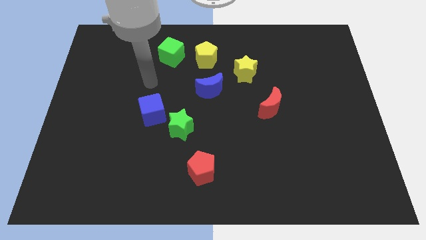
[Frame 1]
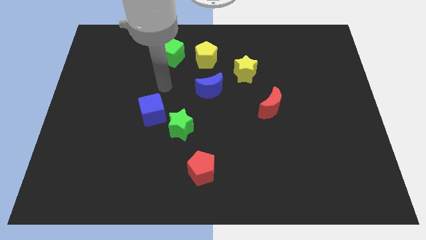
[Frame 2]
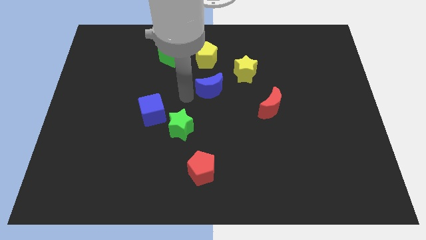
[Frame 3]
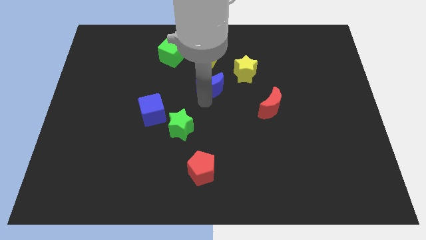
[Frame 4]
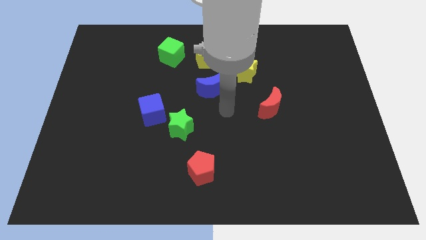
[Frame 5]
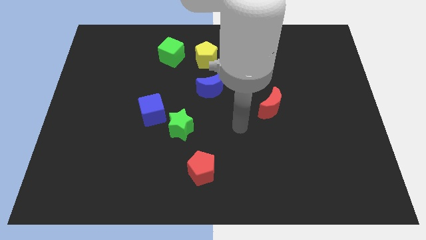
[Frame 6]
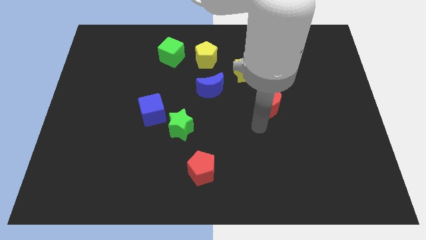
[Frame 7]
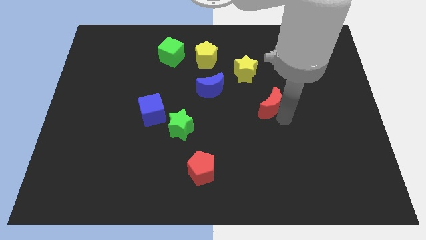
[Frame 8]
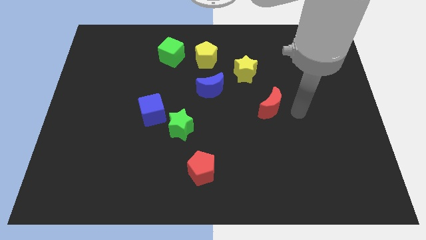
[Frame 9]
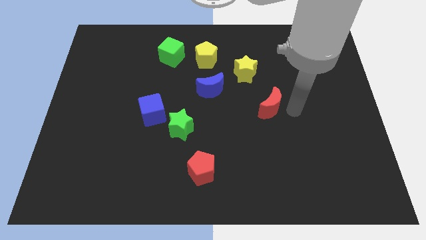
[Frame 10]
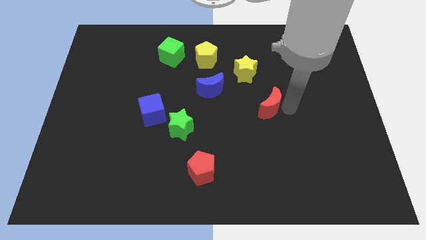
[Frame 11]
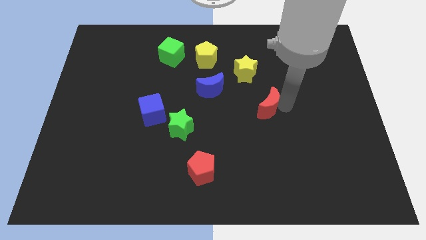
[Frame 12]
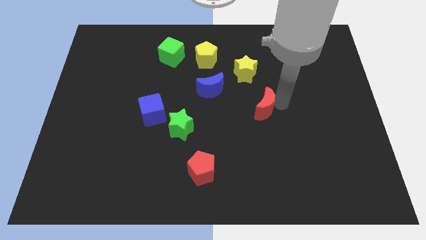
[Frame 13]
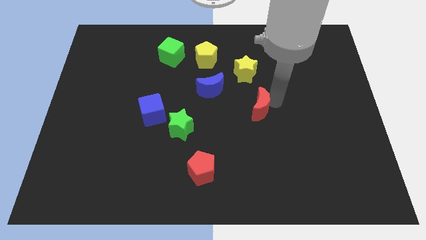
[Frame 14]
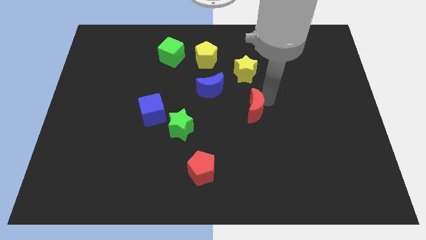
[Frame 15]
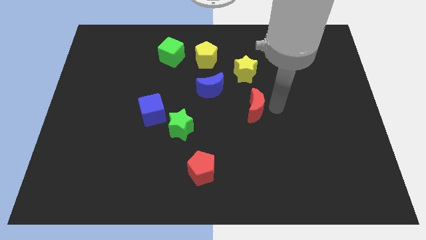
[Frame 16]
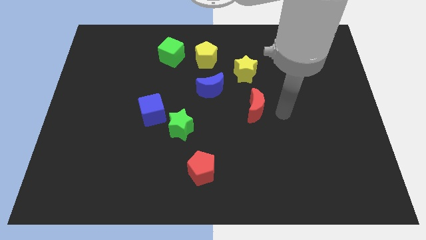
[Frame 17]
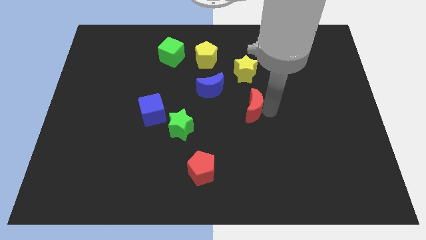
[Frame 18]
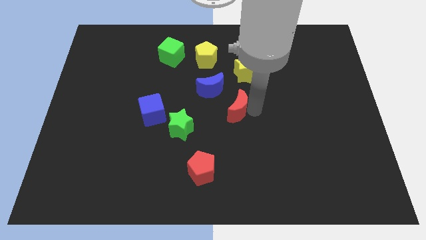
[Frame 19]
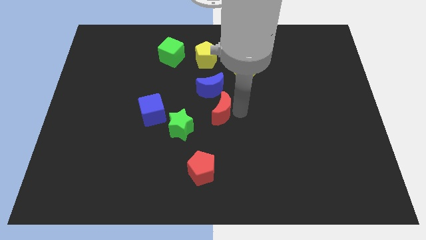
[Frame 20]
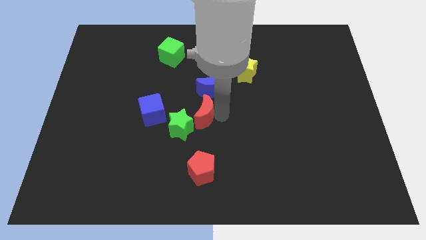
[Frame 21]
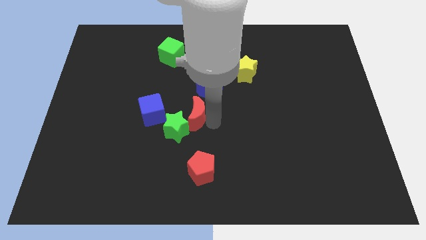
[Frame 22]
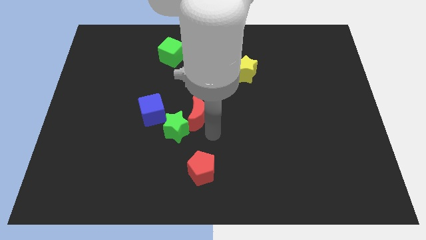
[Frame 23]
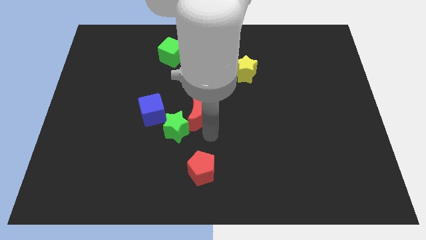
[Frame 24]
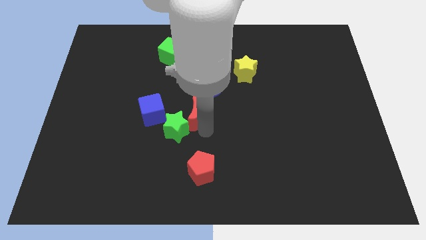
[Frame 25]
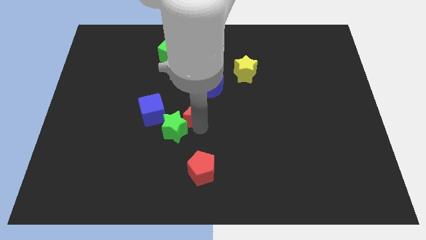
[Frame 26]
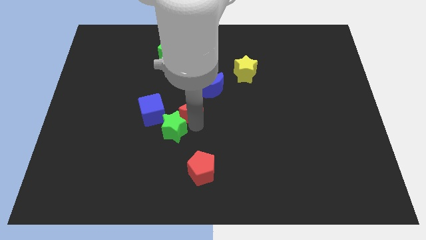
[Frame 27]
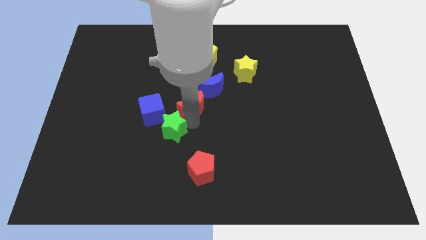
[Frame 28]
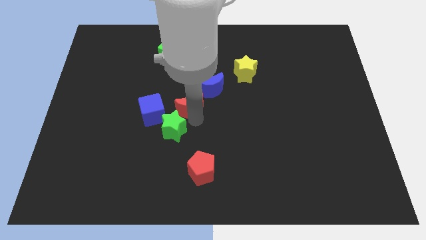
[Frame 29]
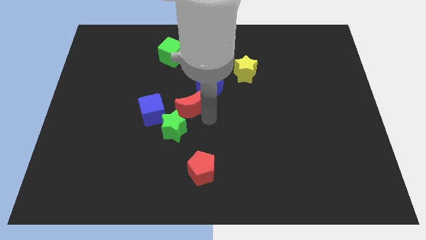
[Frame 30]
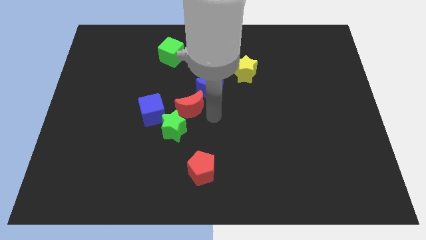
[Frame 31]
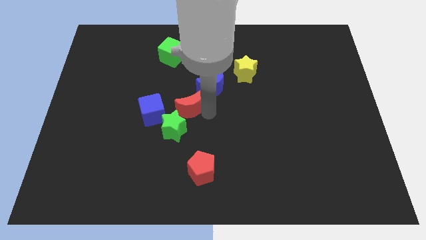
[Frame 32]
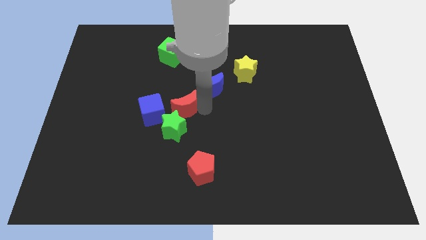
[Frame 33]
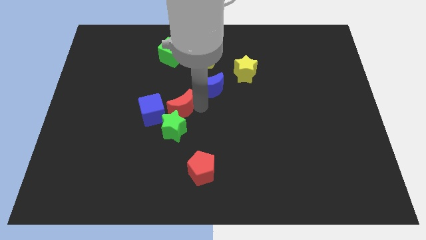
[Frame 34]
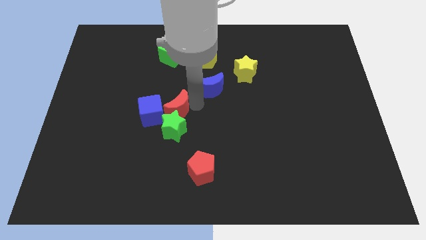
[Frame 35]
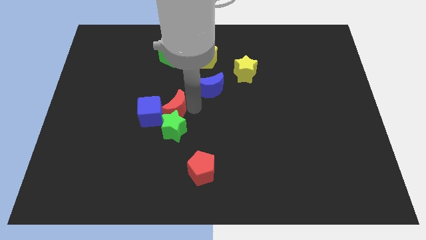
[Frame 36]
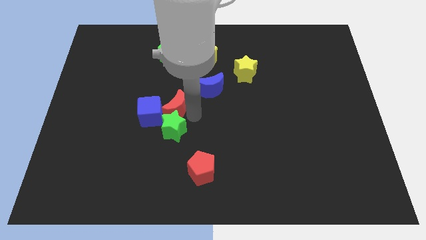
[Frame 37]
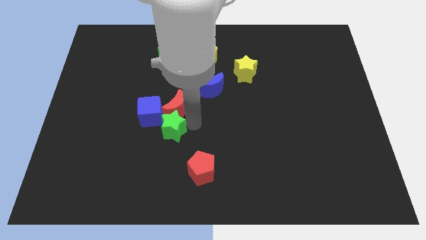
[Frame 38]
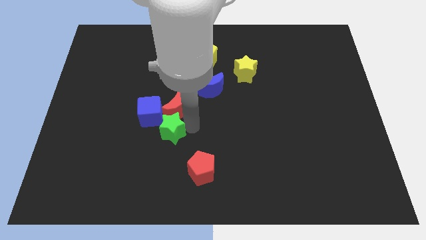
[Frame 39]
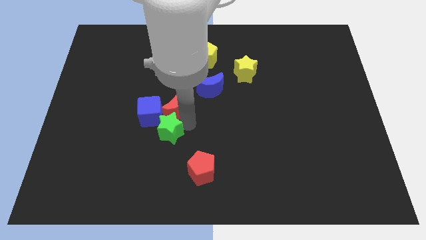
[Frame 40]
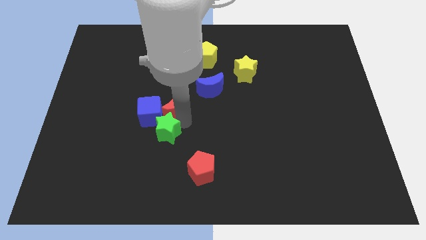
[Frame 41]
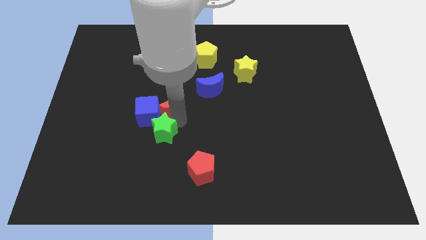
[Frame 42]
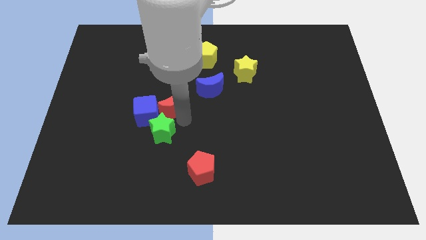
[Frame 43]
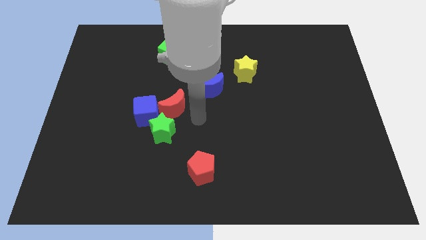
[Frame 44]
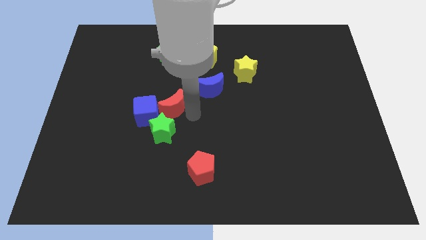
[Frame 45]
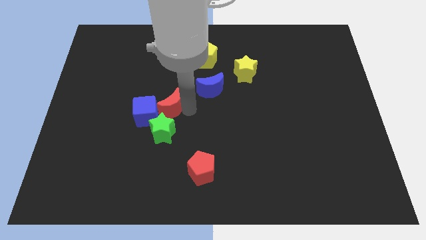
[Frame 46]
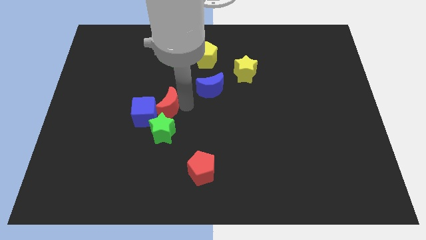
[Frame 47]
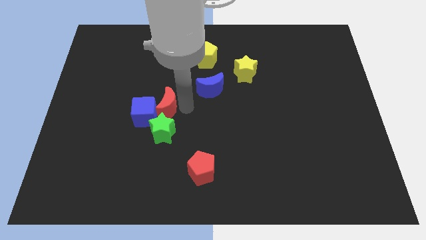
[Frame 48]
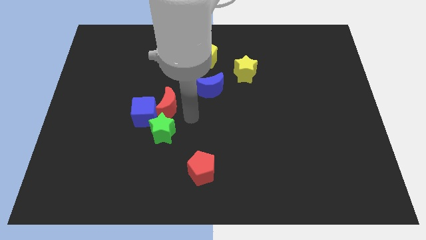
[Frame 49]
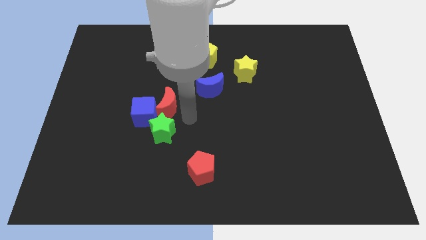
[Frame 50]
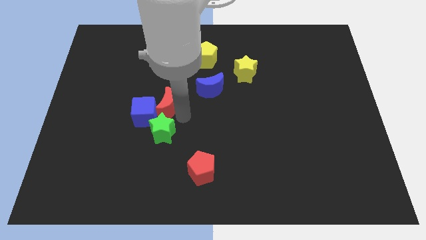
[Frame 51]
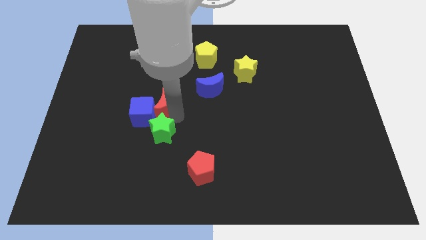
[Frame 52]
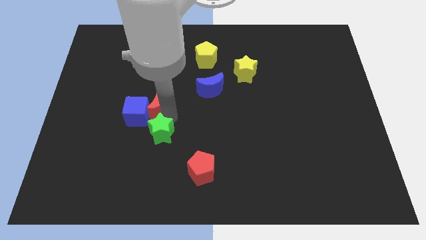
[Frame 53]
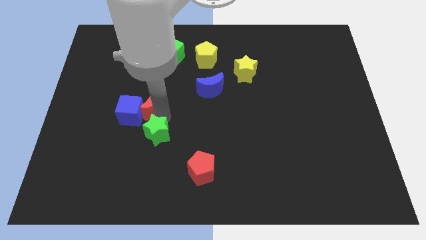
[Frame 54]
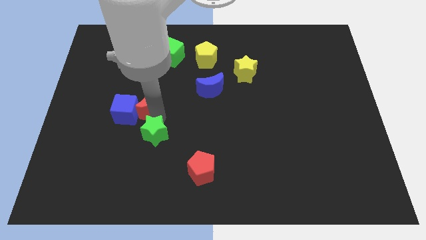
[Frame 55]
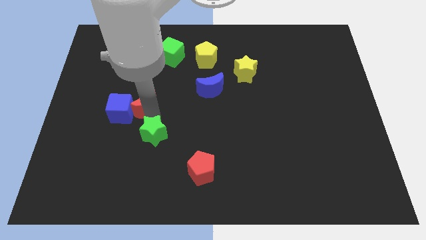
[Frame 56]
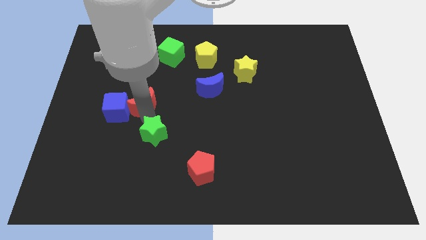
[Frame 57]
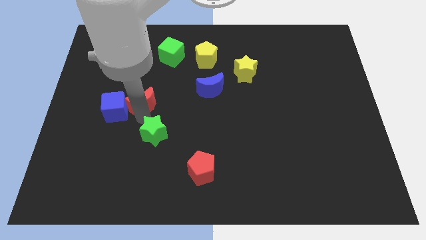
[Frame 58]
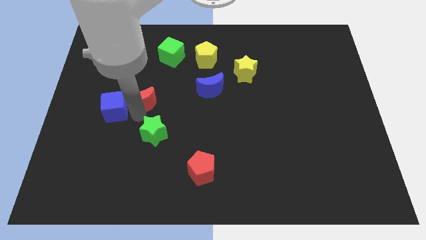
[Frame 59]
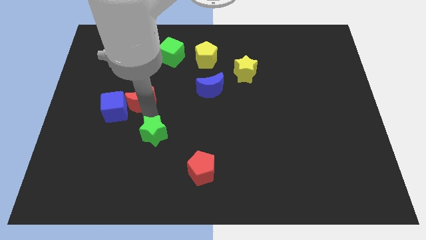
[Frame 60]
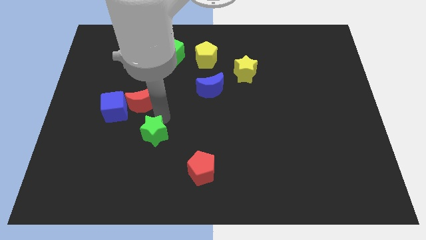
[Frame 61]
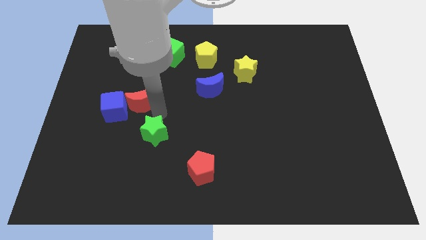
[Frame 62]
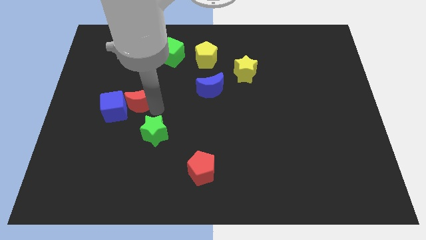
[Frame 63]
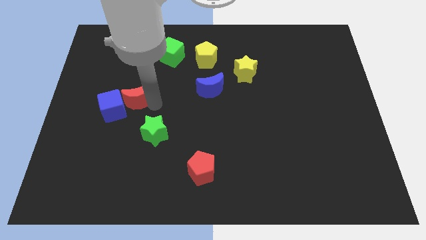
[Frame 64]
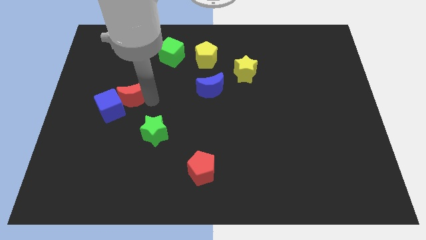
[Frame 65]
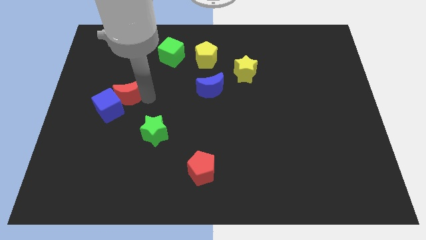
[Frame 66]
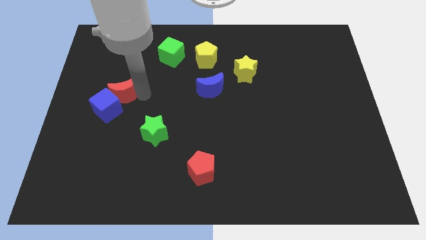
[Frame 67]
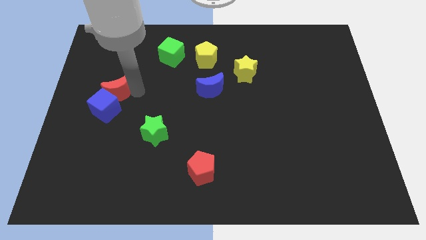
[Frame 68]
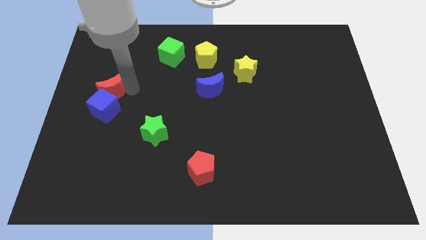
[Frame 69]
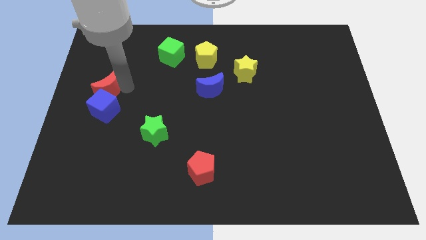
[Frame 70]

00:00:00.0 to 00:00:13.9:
push the red moon to the left side of the board

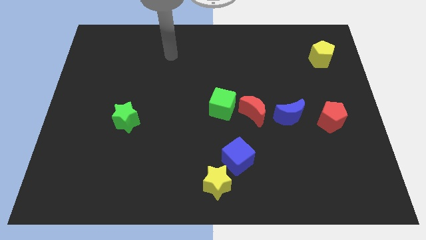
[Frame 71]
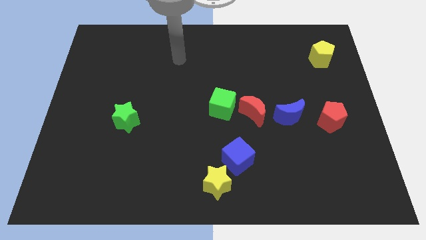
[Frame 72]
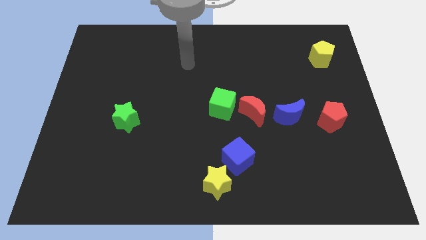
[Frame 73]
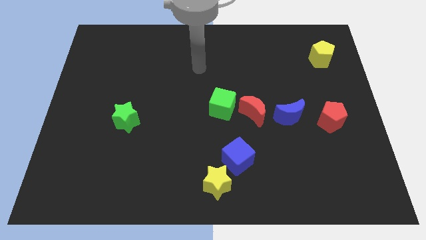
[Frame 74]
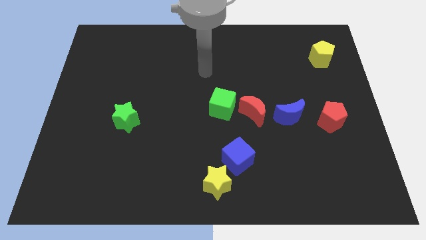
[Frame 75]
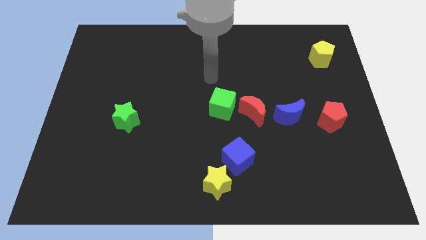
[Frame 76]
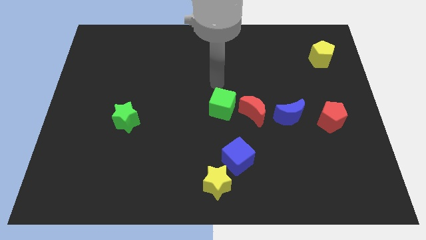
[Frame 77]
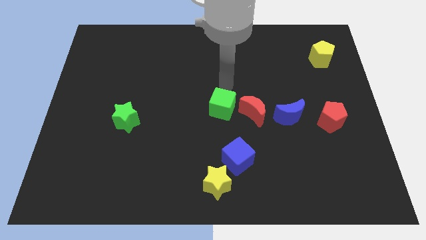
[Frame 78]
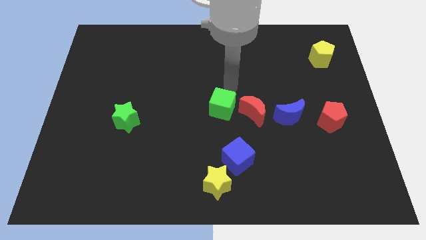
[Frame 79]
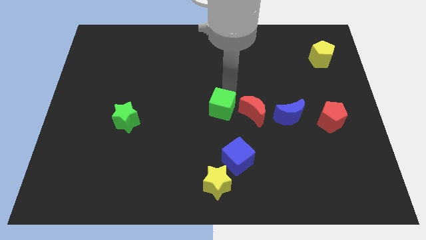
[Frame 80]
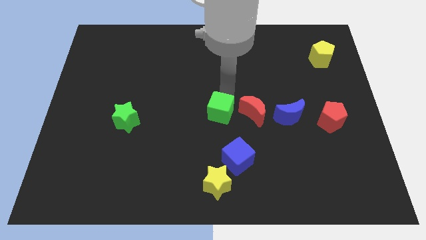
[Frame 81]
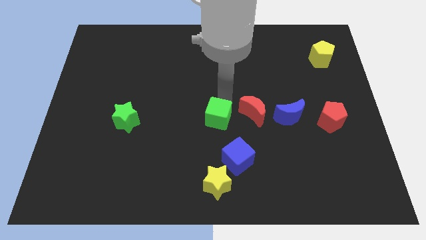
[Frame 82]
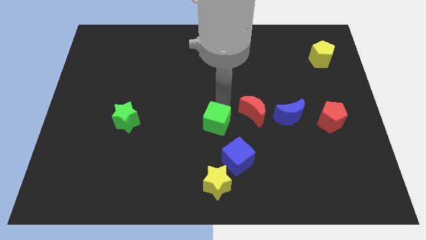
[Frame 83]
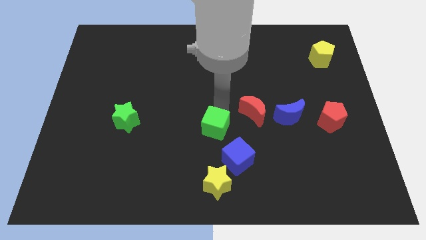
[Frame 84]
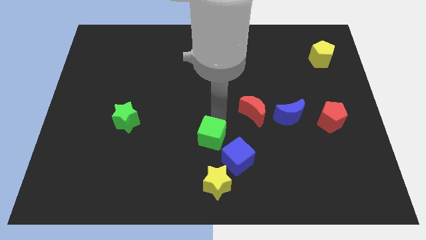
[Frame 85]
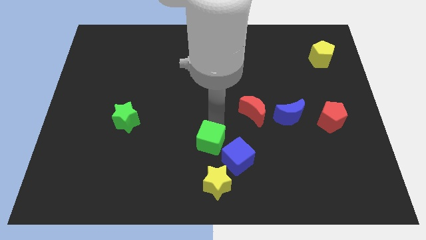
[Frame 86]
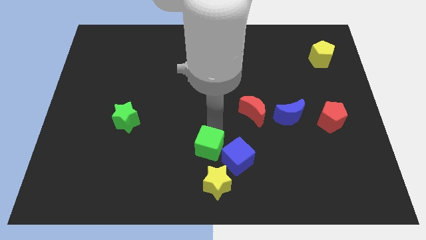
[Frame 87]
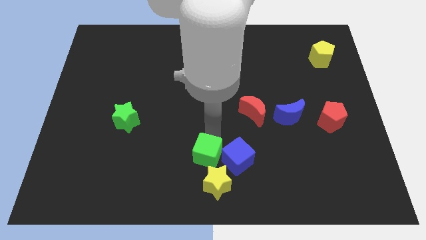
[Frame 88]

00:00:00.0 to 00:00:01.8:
push the green cube to the bottom
